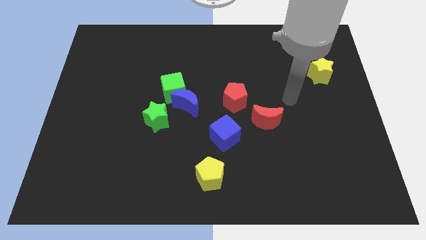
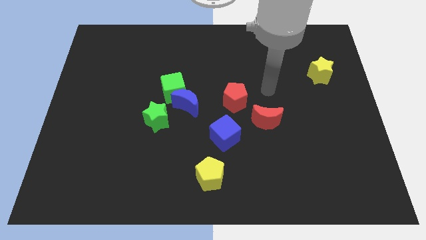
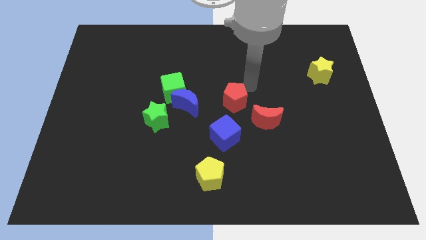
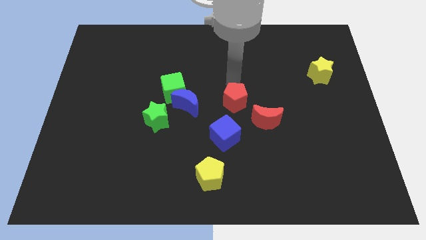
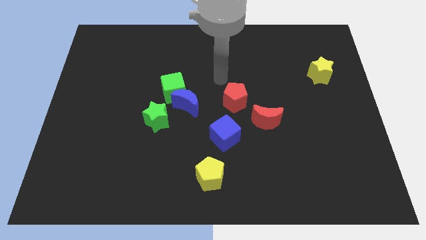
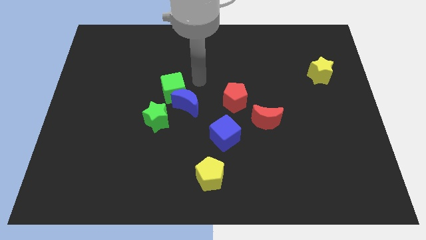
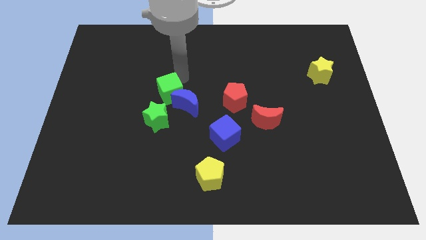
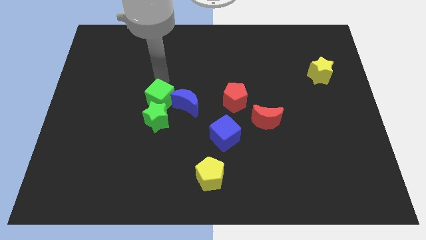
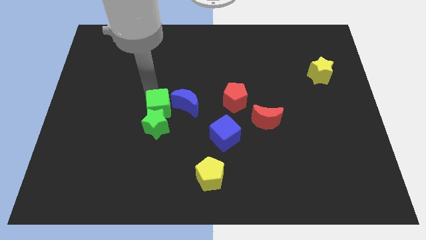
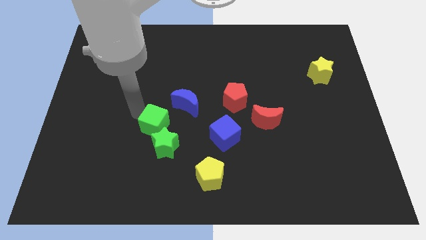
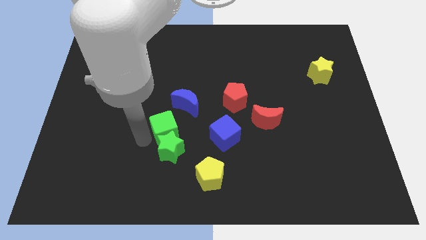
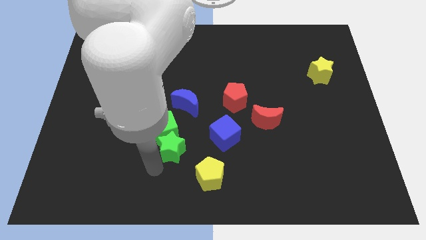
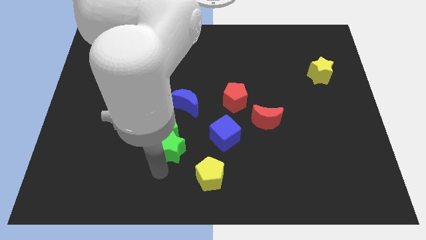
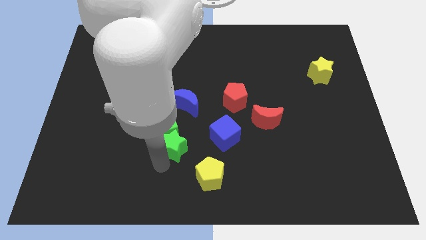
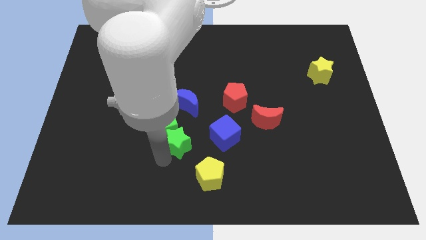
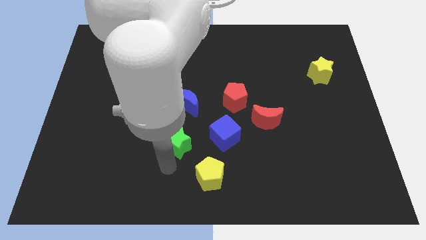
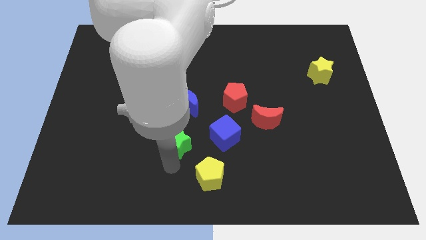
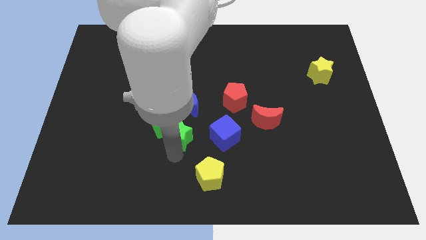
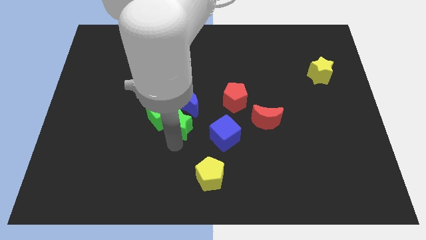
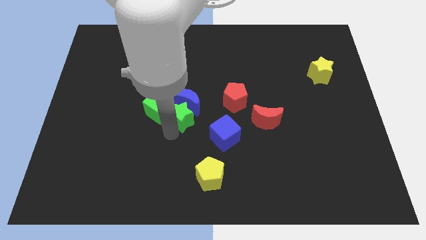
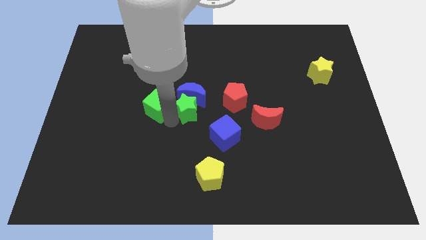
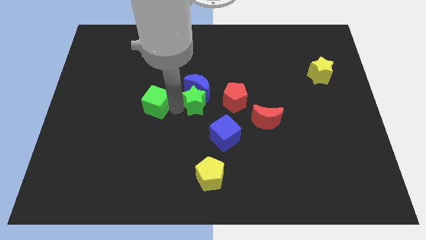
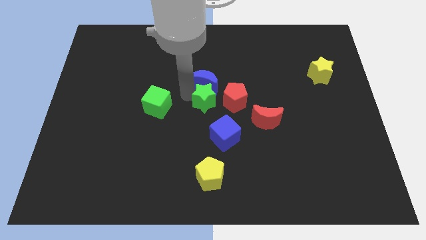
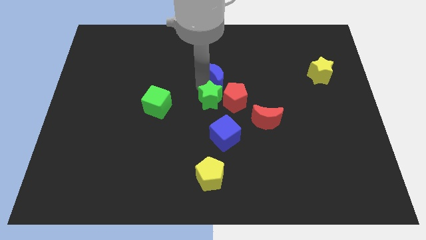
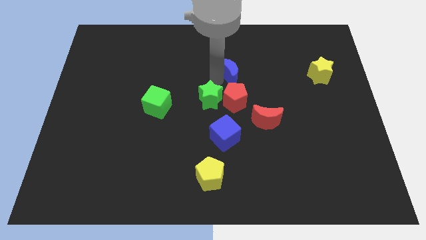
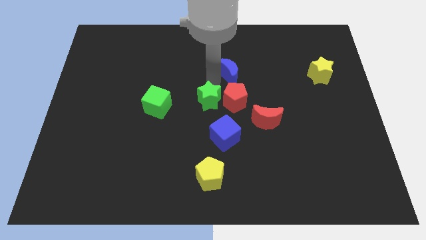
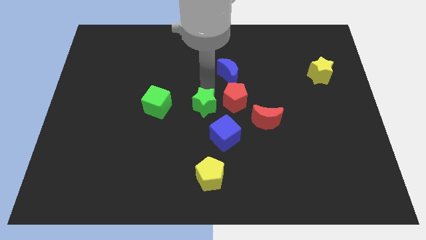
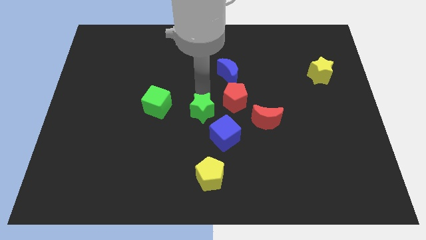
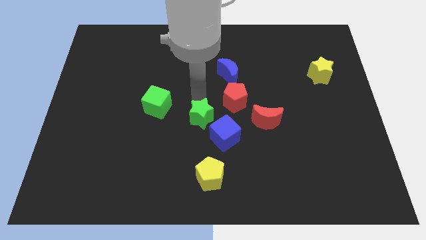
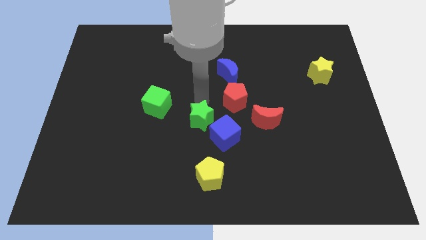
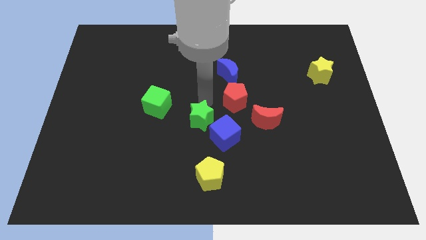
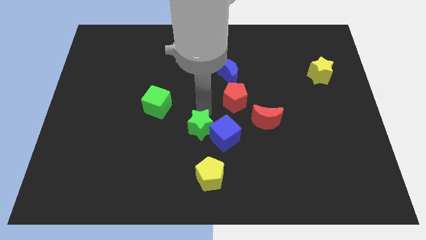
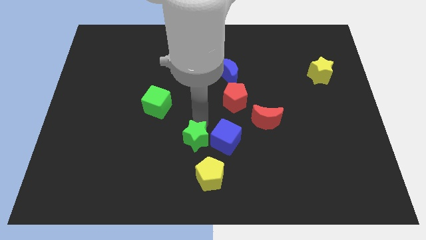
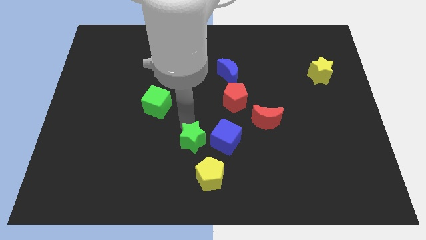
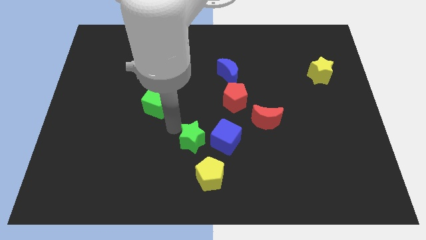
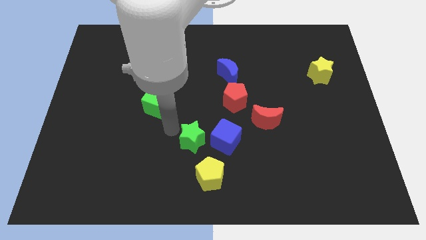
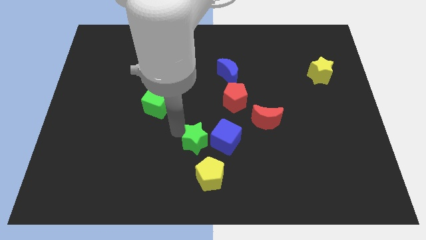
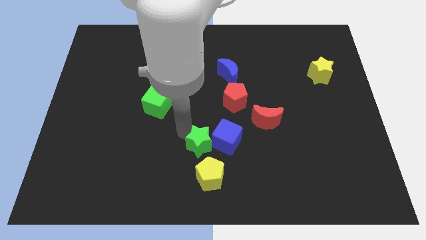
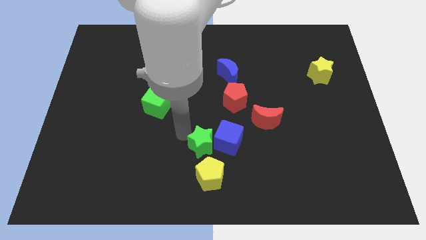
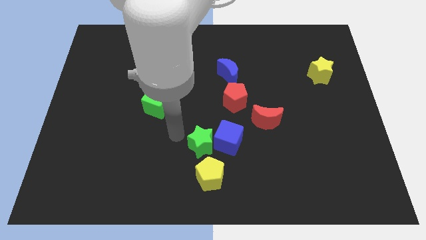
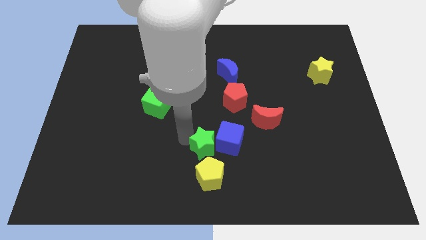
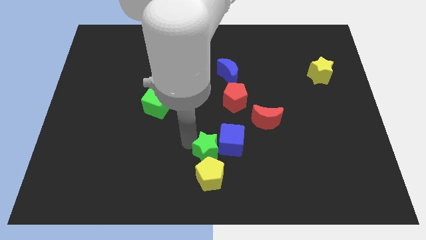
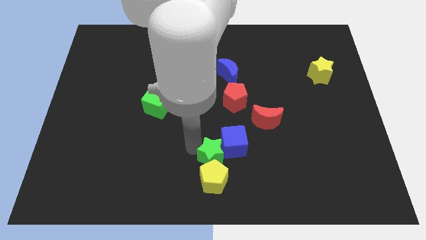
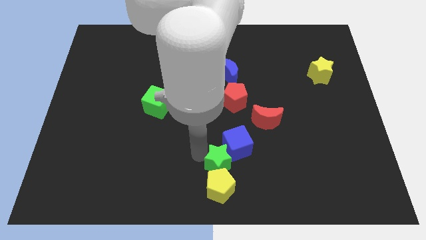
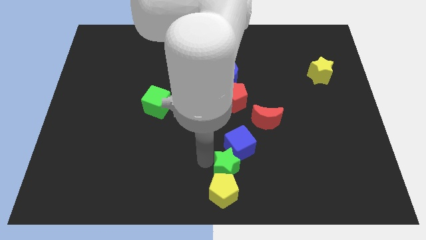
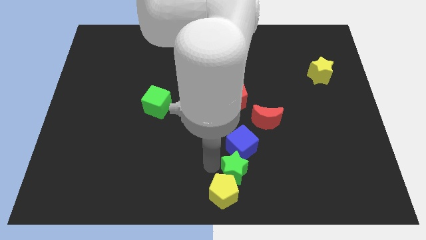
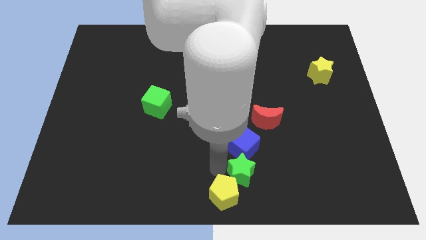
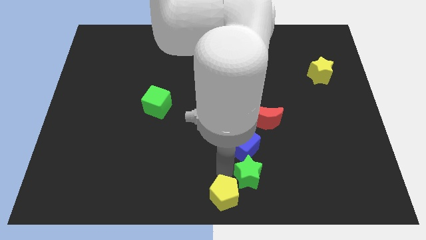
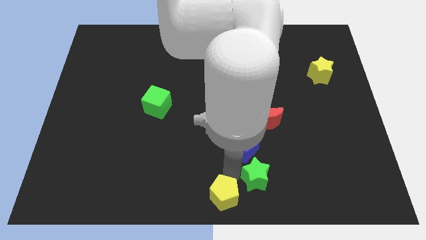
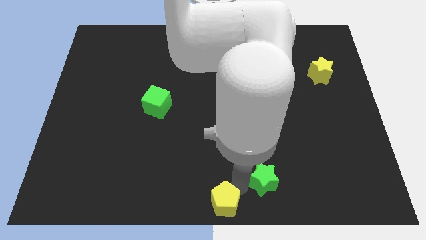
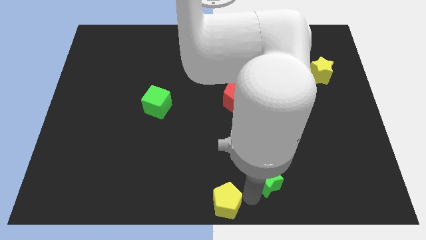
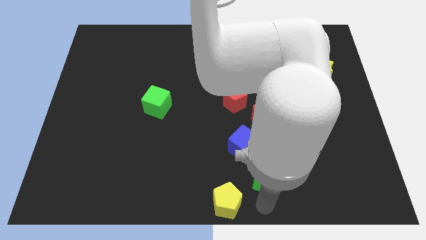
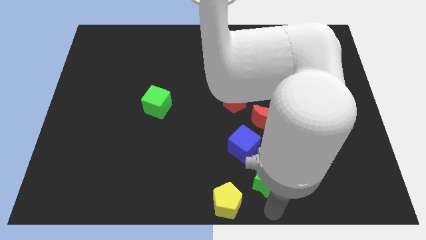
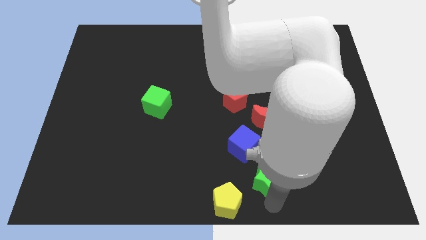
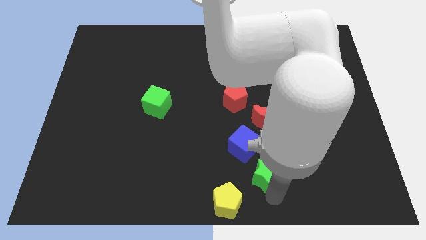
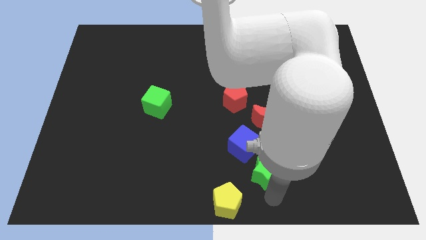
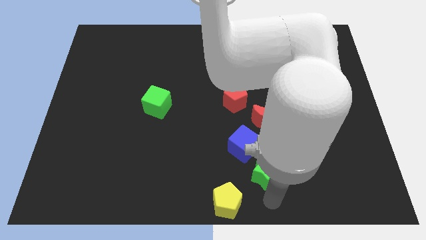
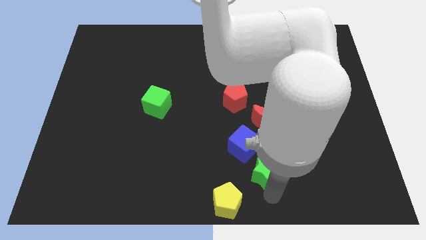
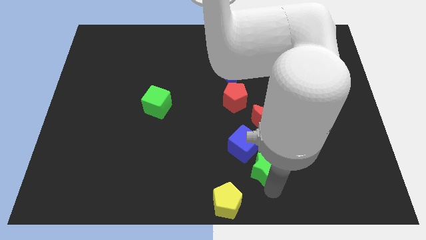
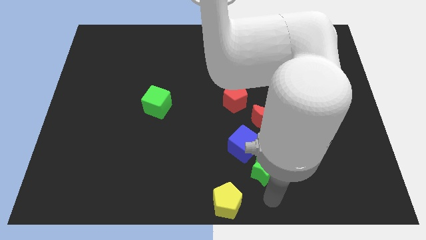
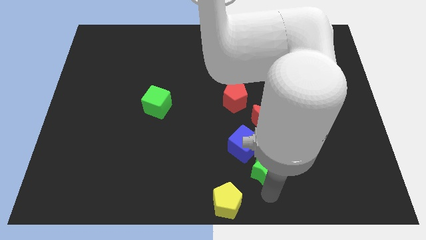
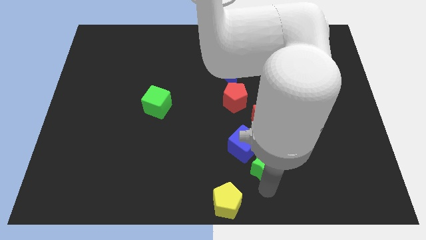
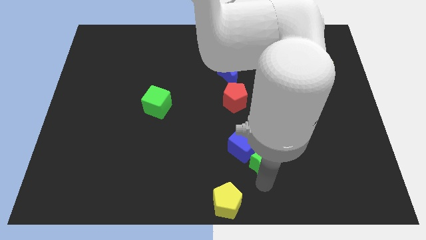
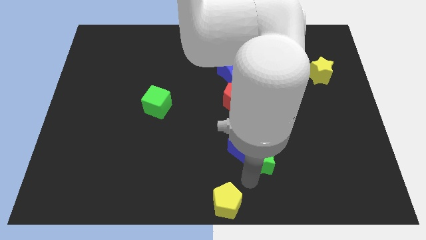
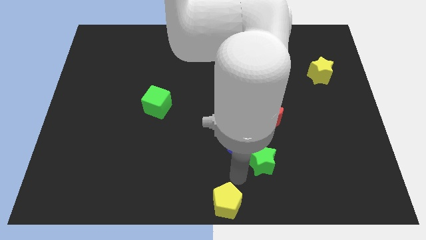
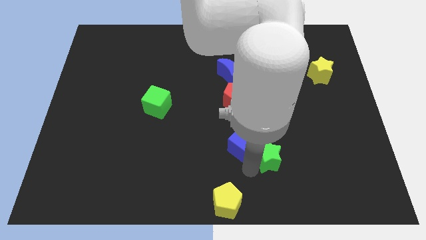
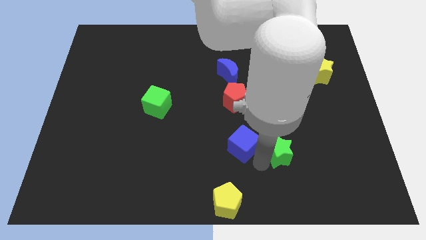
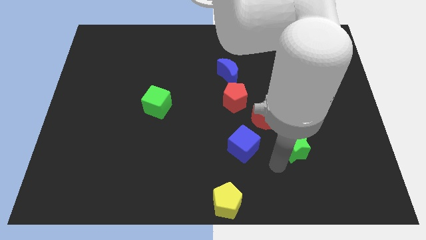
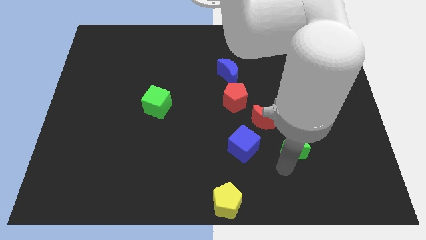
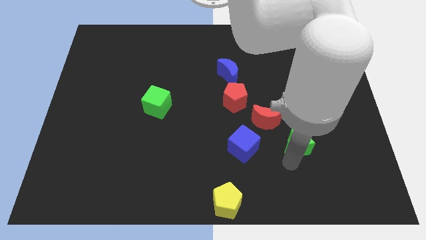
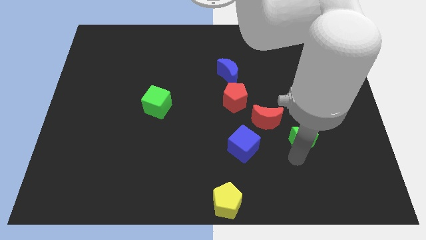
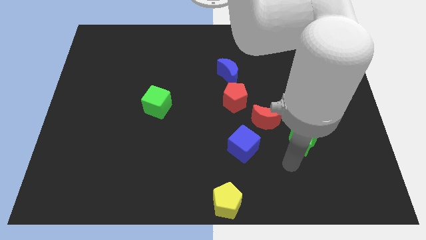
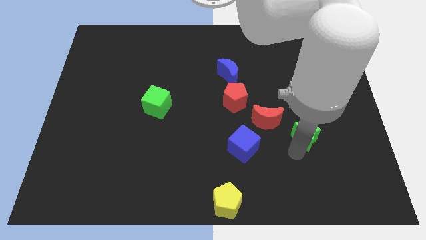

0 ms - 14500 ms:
slide the green star to the right side of the red moon
